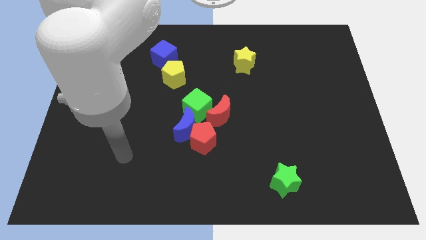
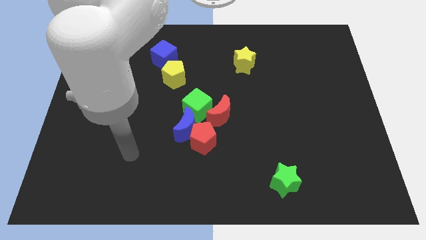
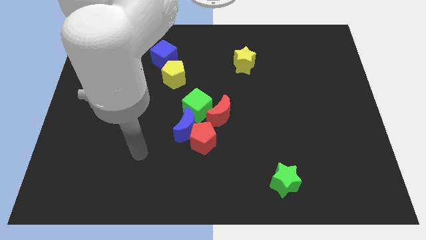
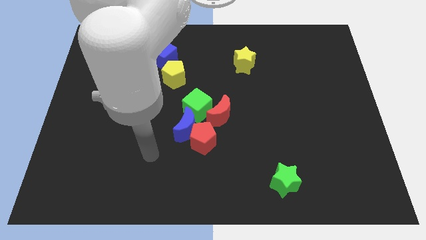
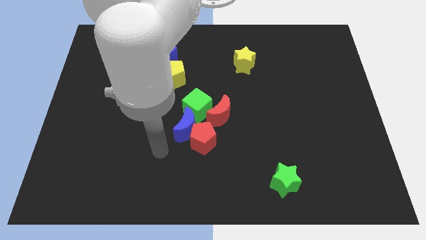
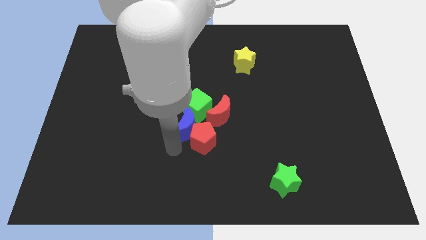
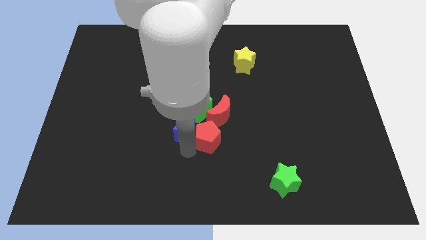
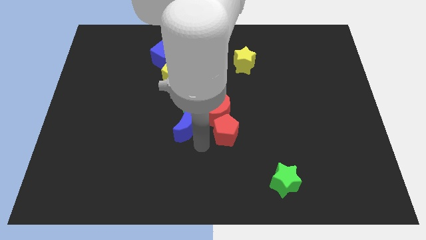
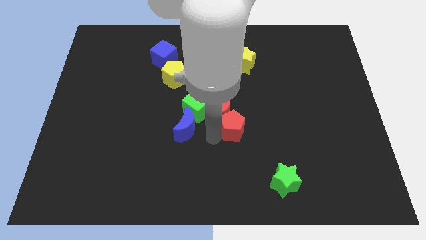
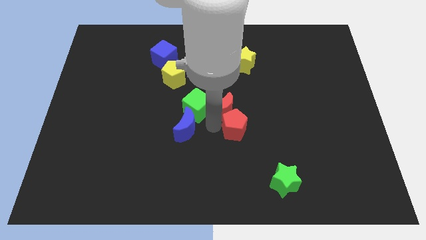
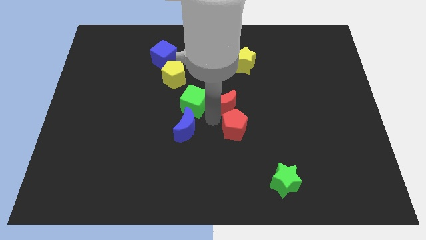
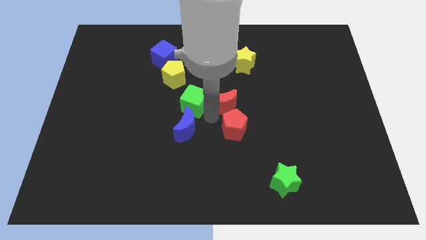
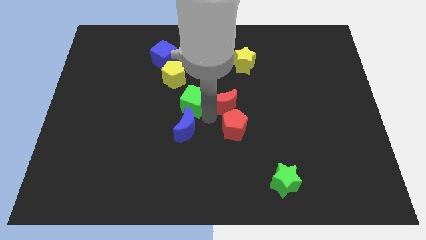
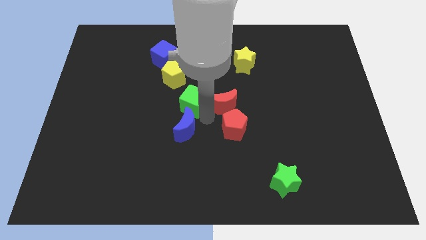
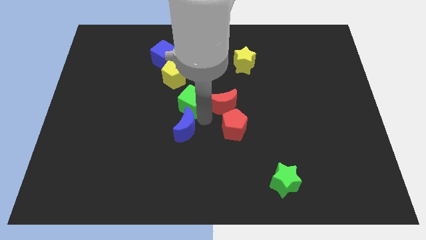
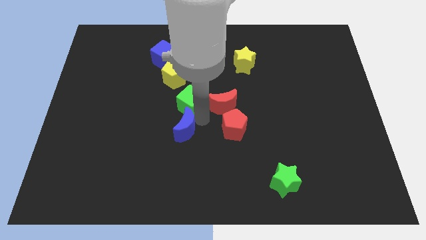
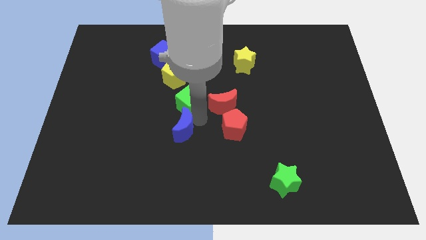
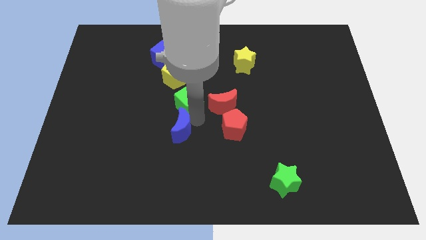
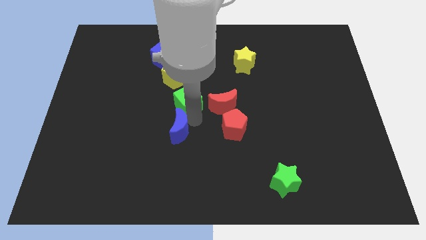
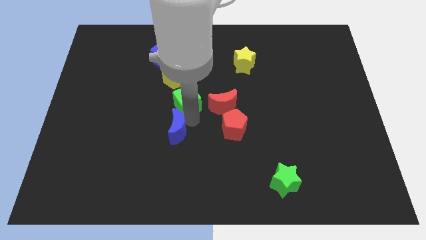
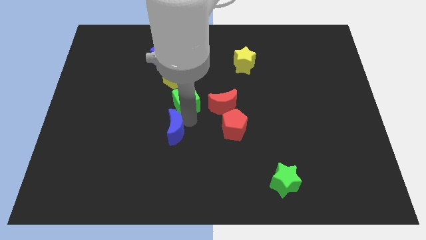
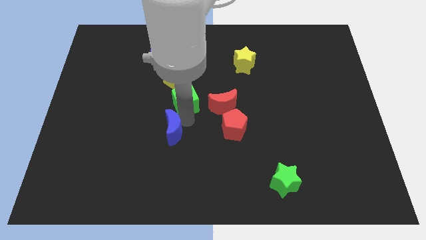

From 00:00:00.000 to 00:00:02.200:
move the blue moon away from the clump

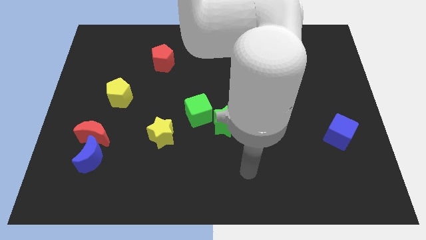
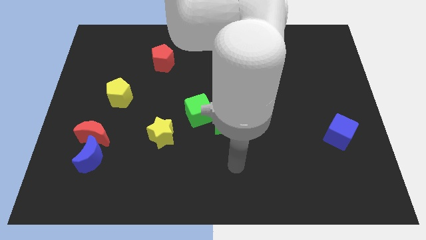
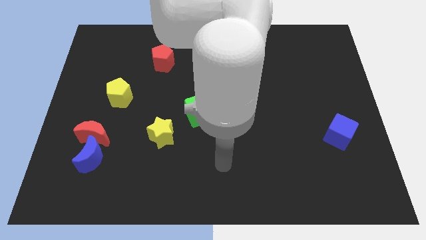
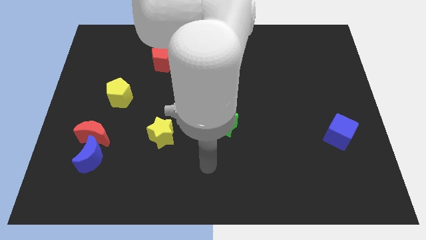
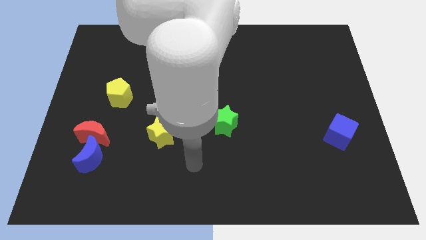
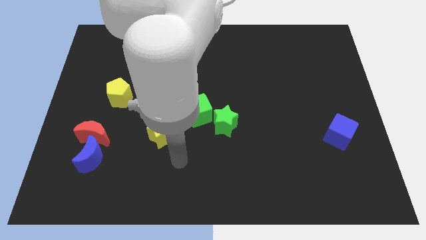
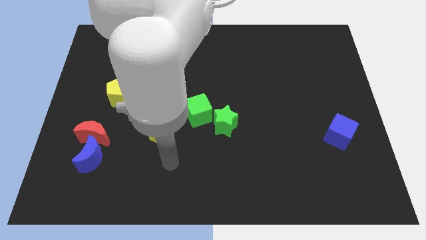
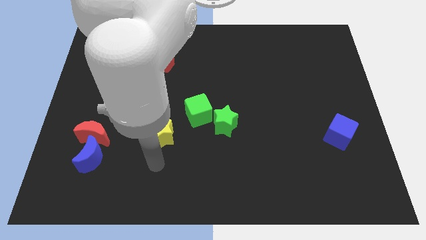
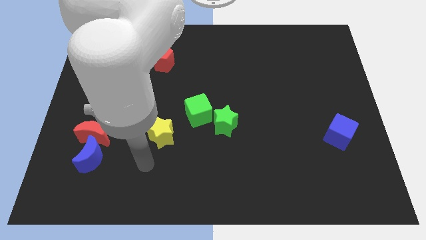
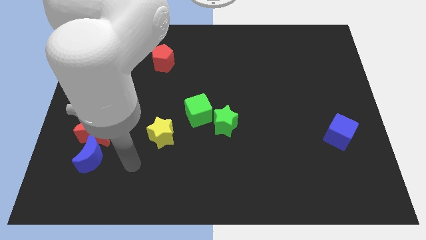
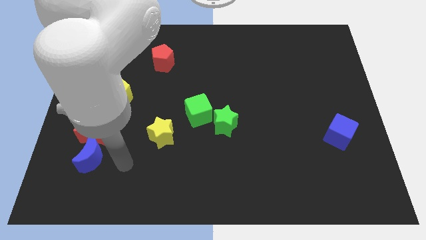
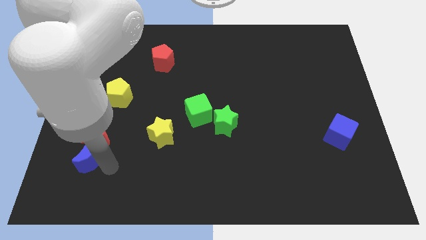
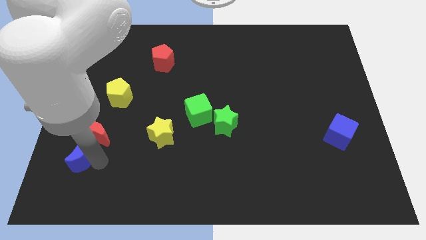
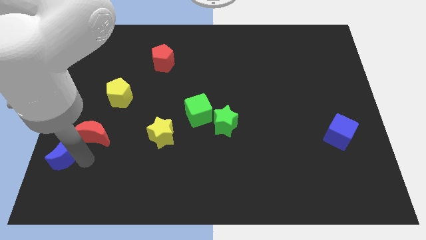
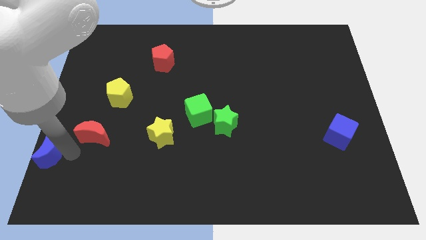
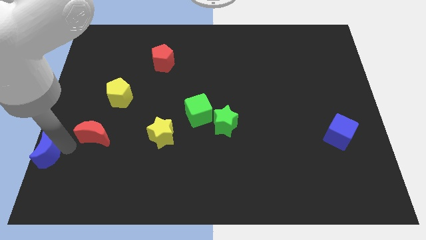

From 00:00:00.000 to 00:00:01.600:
move the red moon away from the blue moon

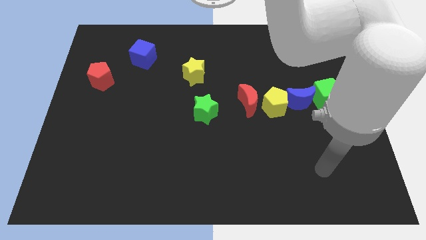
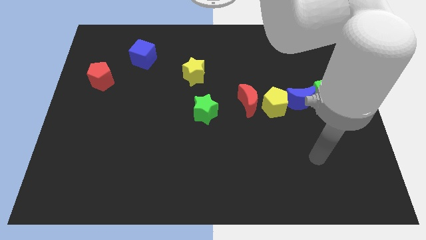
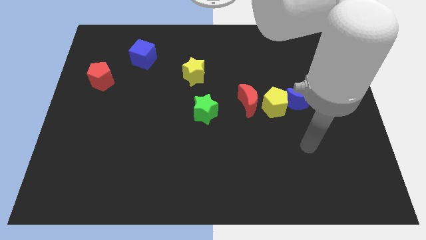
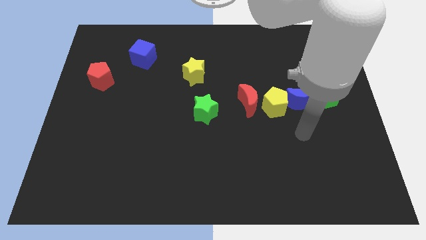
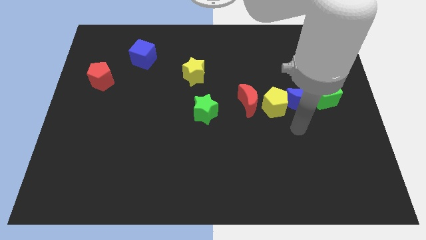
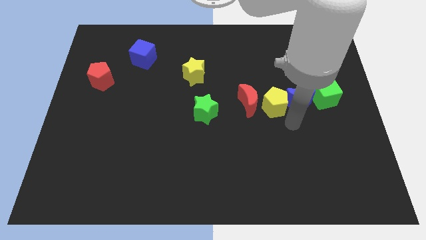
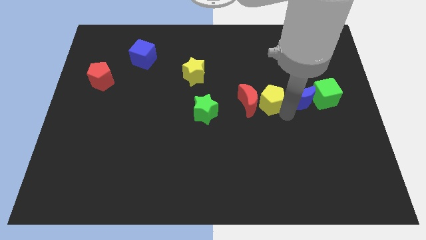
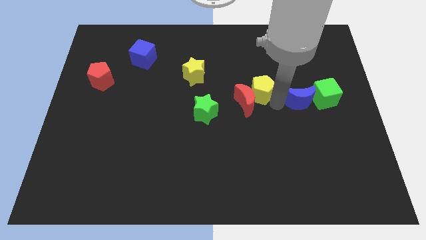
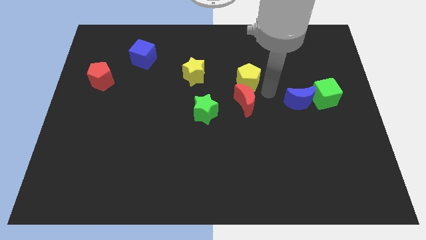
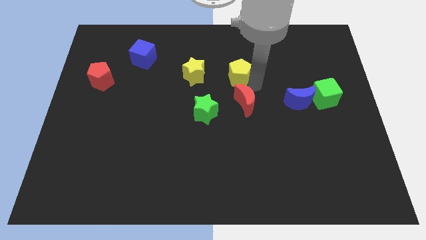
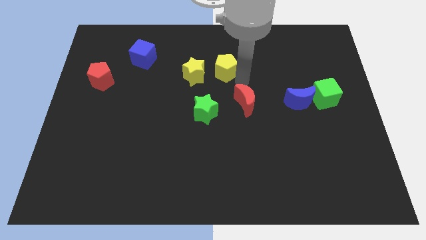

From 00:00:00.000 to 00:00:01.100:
move the red moon away from the yellow pentagon

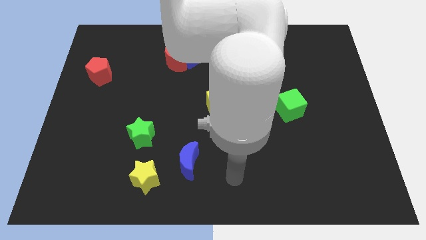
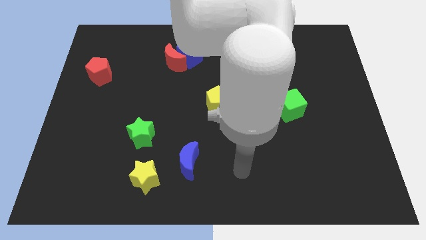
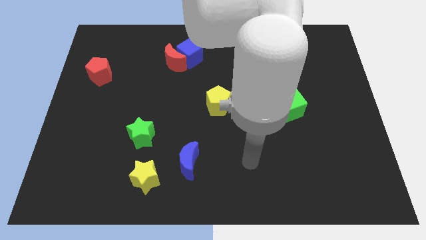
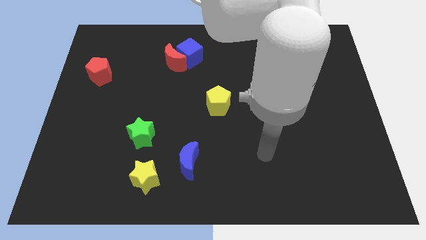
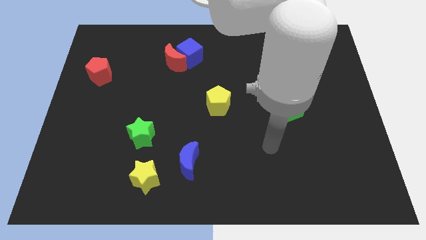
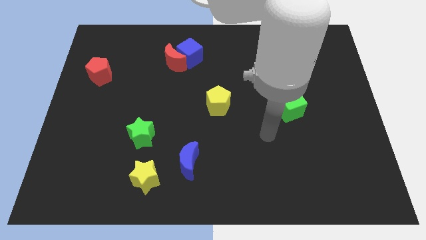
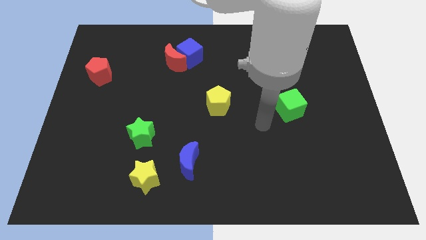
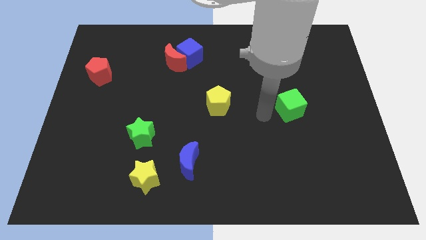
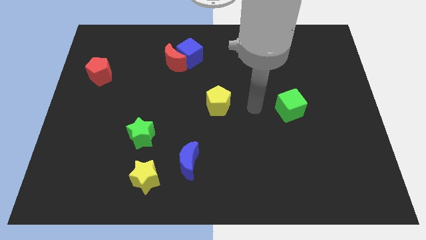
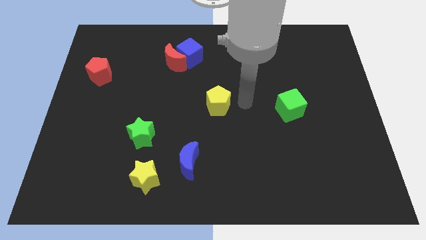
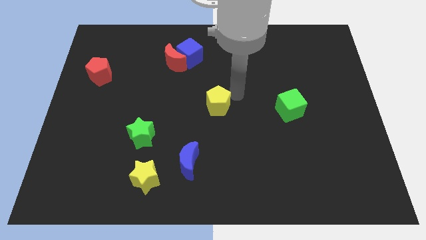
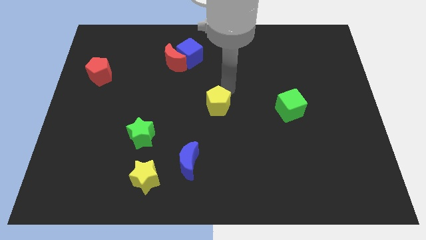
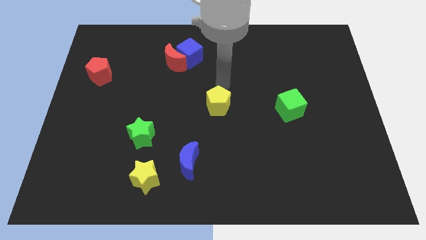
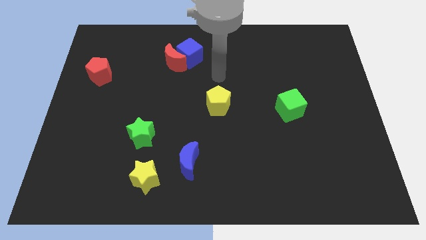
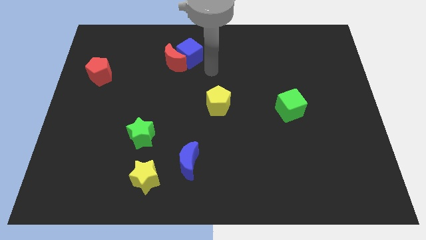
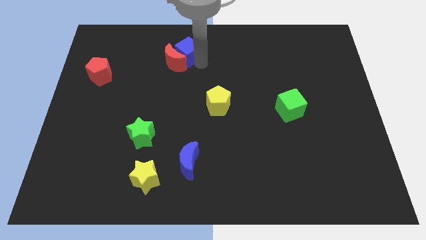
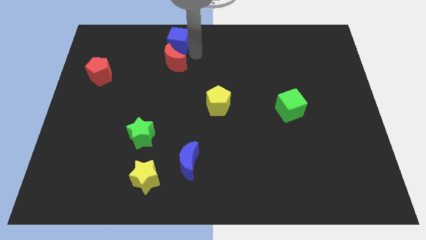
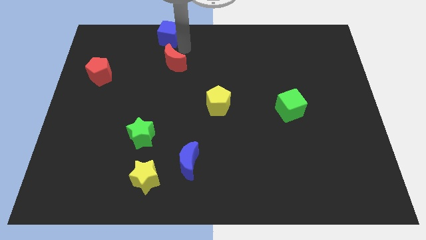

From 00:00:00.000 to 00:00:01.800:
move the red moon away from the blue cube

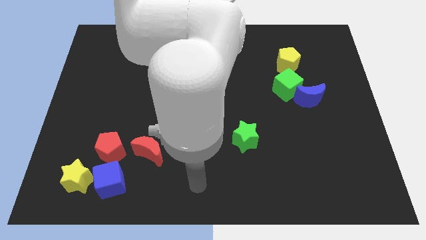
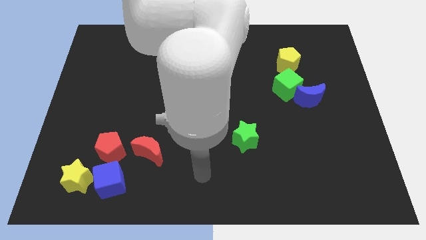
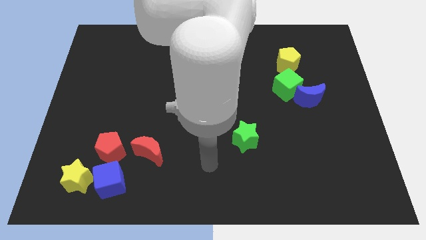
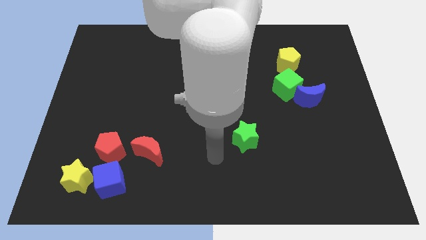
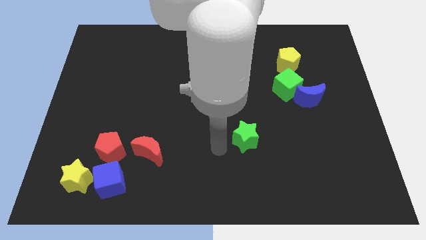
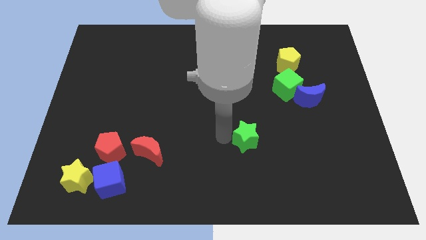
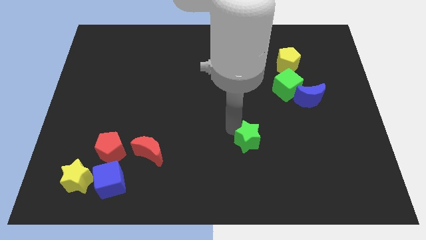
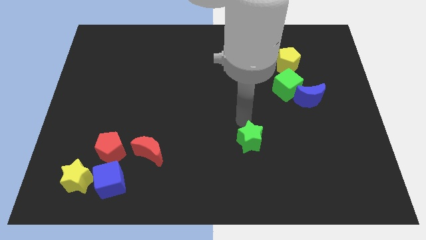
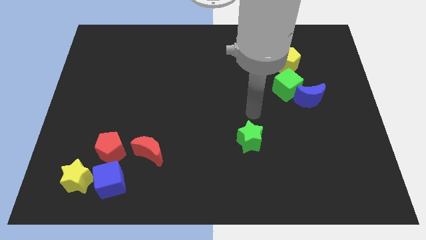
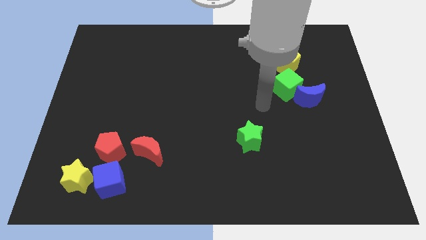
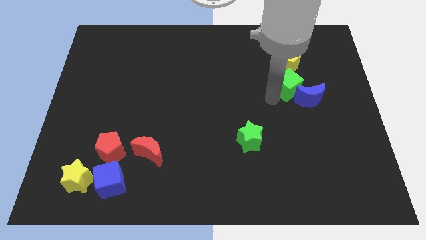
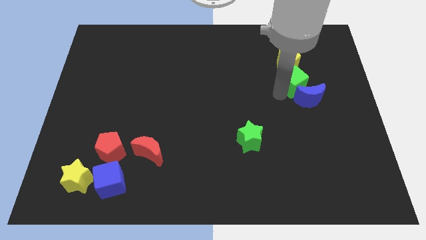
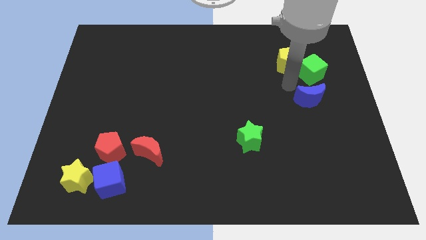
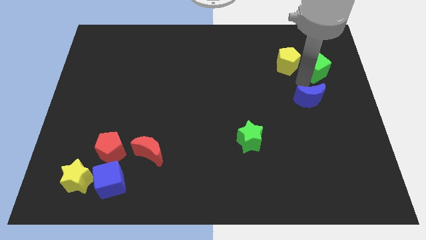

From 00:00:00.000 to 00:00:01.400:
separate the blue moon from the green cube

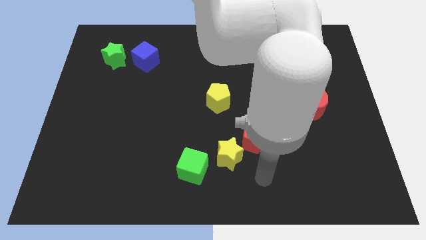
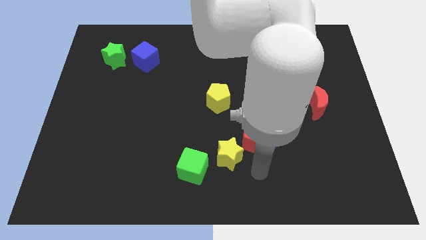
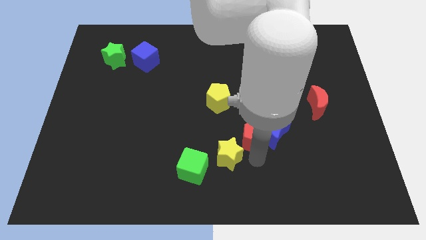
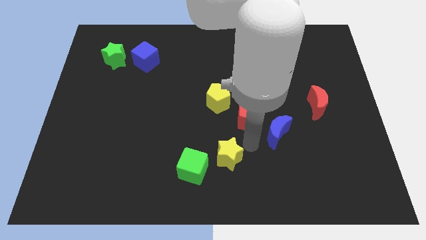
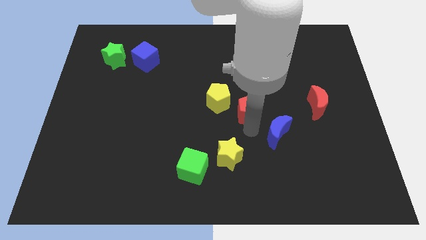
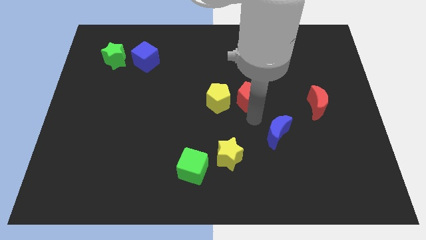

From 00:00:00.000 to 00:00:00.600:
pull the blue moon apart from the red pentagon

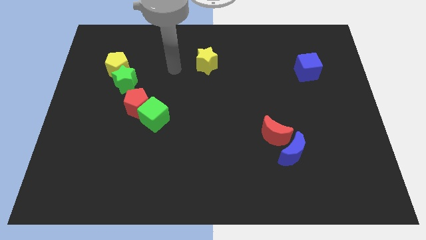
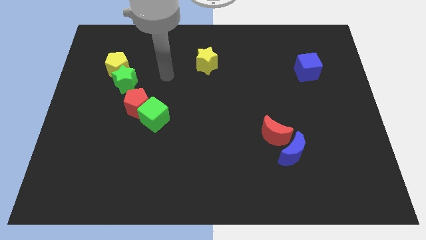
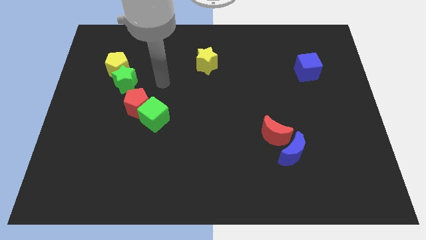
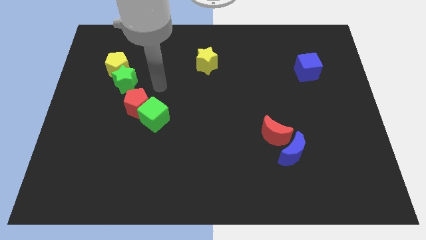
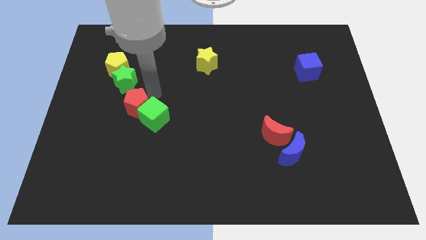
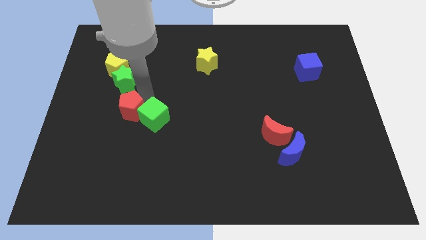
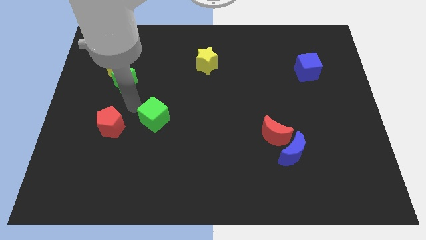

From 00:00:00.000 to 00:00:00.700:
pull the green cube apart from the red pentagon
